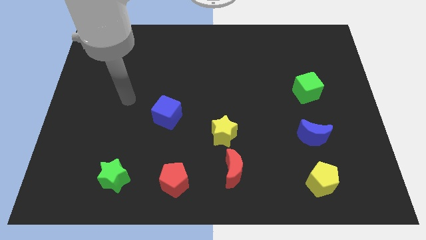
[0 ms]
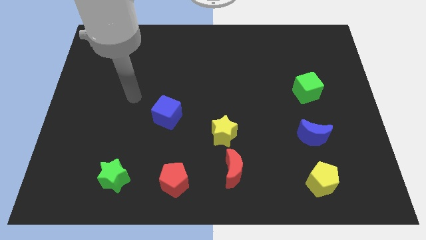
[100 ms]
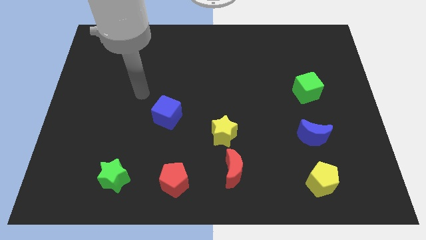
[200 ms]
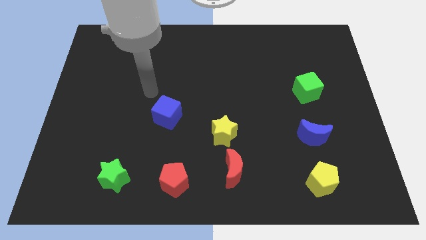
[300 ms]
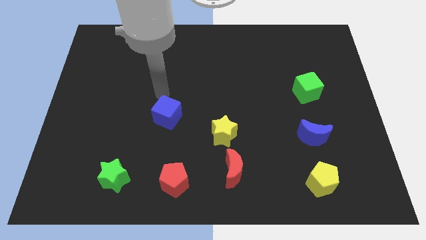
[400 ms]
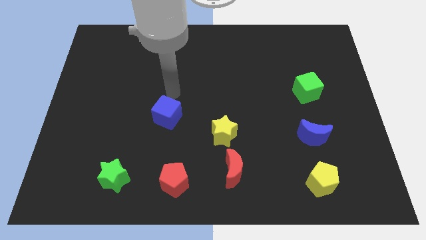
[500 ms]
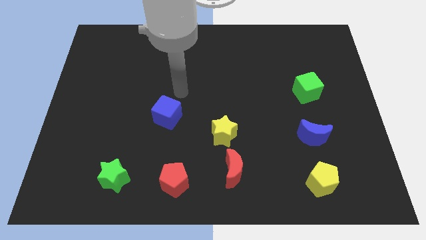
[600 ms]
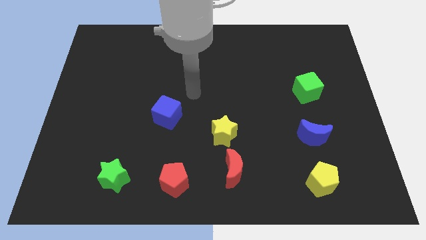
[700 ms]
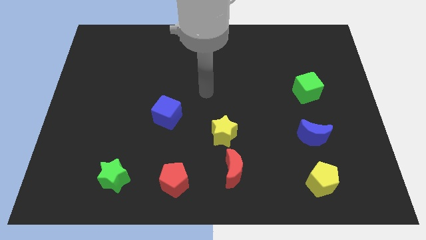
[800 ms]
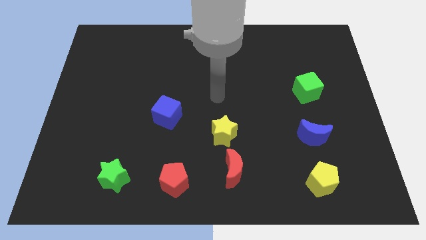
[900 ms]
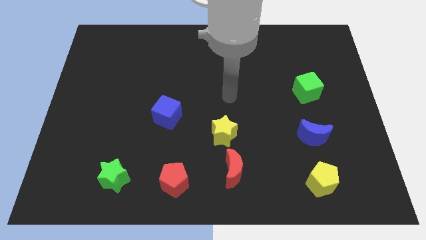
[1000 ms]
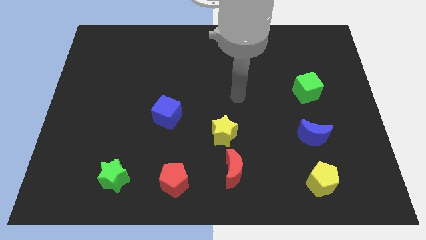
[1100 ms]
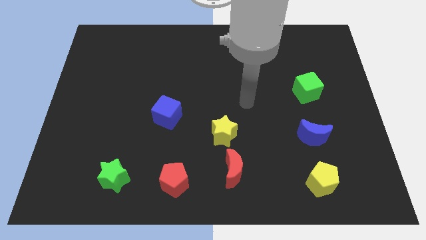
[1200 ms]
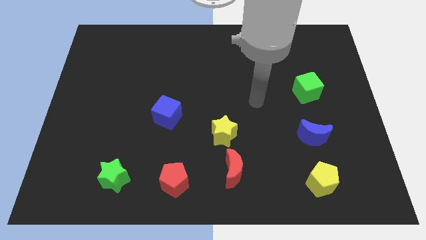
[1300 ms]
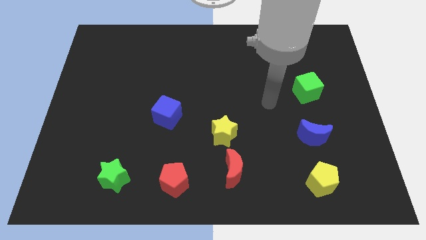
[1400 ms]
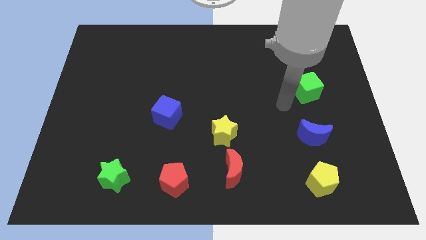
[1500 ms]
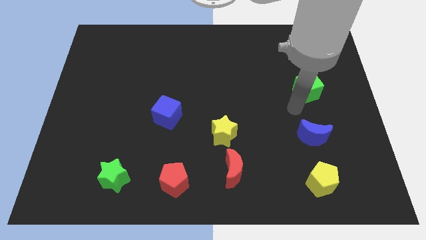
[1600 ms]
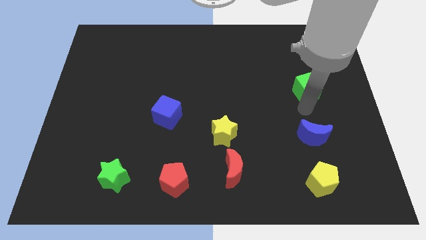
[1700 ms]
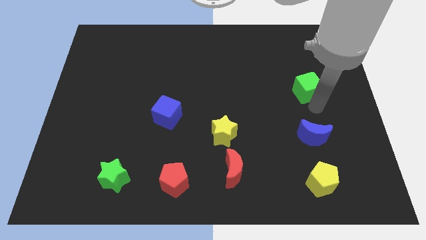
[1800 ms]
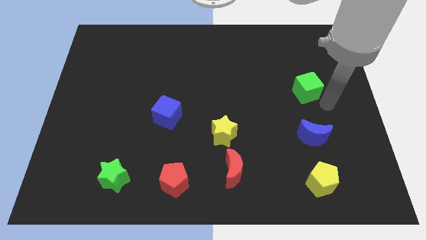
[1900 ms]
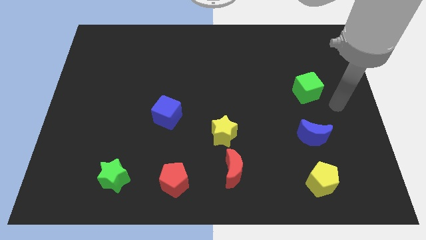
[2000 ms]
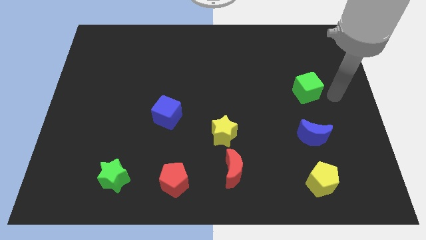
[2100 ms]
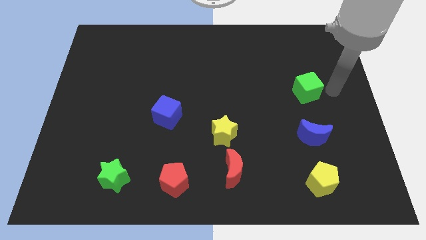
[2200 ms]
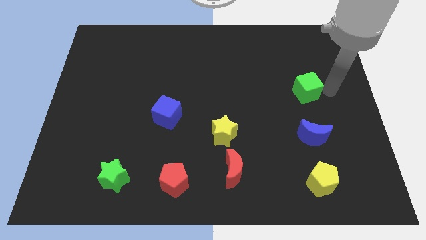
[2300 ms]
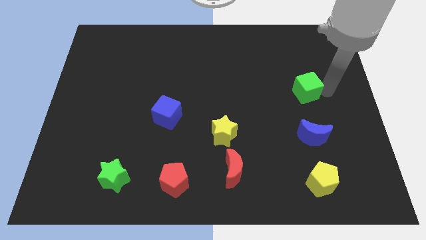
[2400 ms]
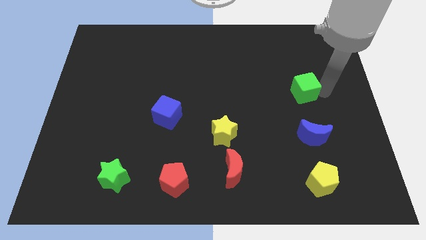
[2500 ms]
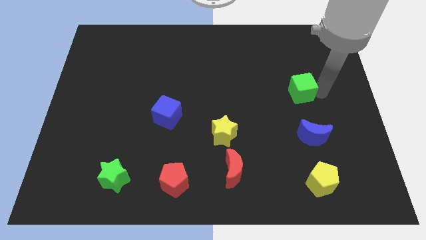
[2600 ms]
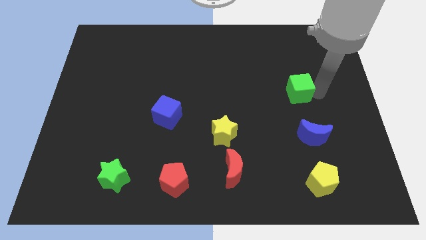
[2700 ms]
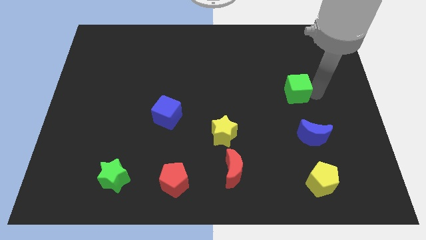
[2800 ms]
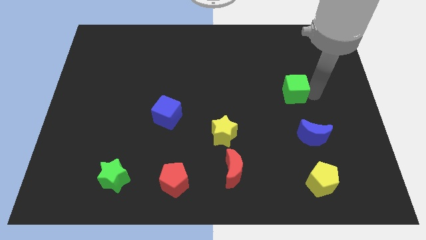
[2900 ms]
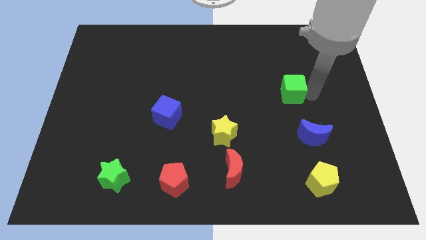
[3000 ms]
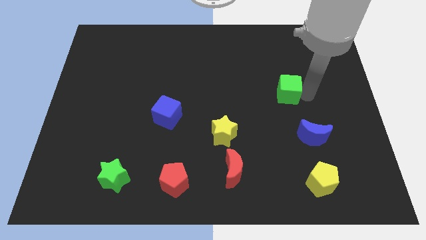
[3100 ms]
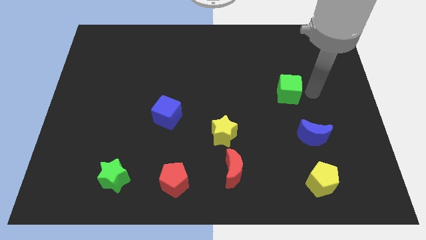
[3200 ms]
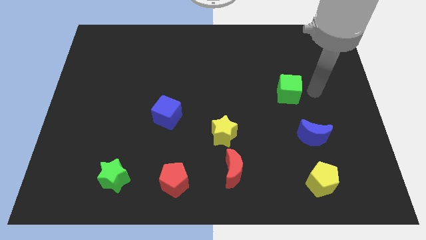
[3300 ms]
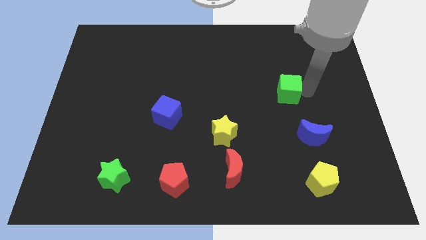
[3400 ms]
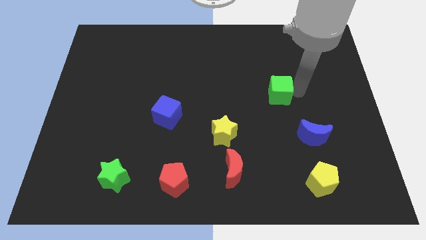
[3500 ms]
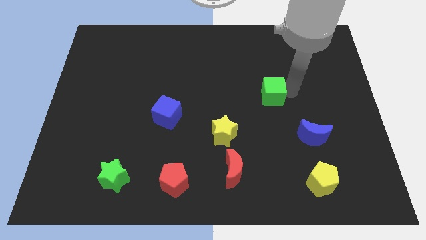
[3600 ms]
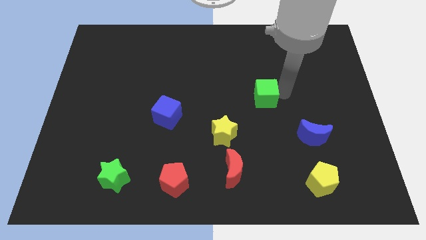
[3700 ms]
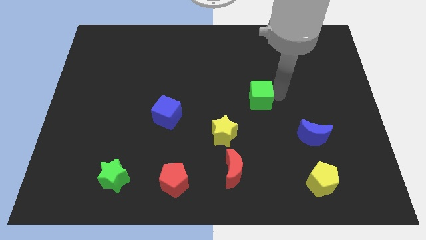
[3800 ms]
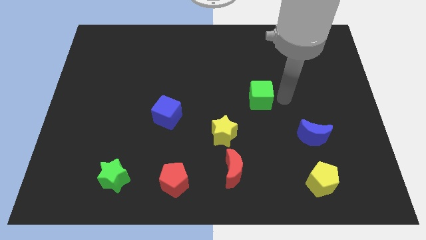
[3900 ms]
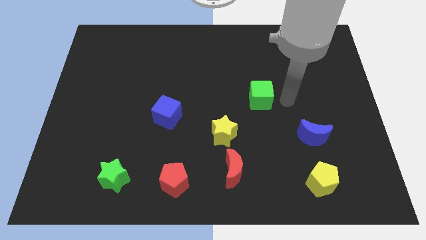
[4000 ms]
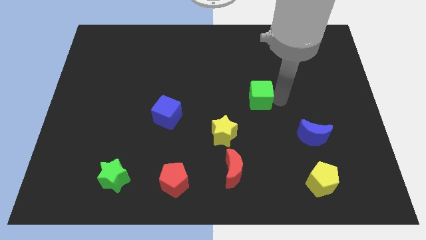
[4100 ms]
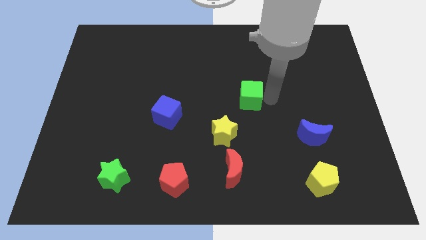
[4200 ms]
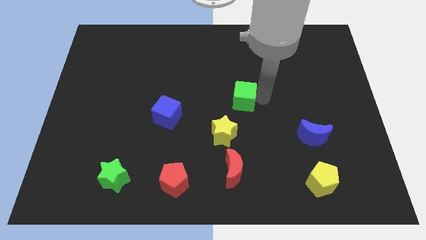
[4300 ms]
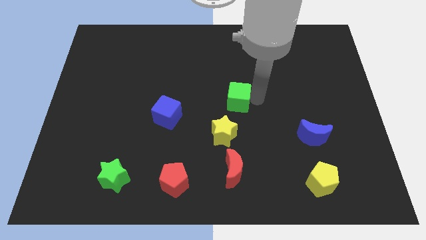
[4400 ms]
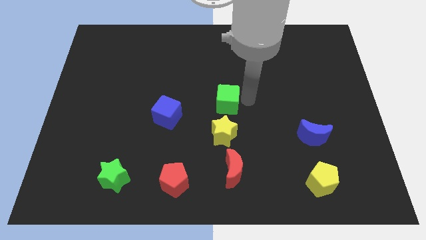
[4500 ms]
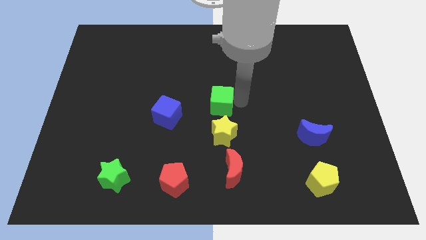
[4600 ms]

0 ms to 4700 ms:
slide the green cube to the left

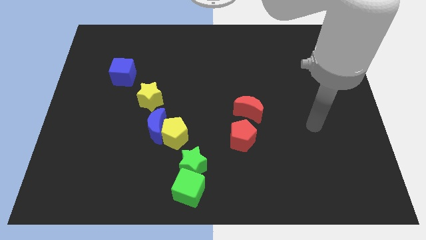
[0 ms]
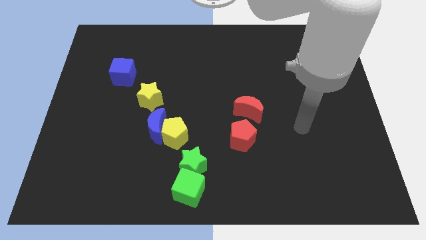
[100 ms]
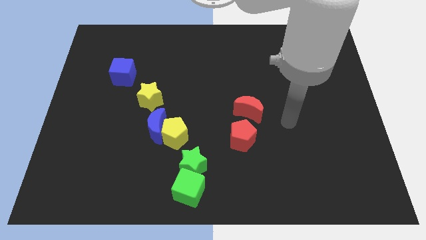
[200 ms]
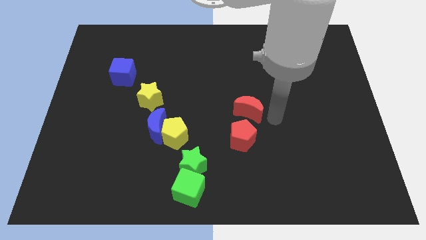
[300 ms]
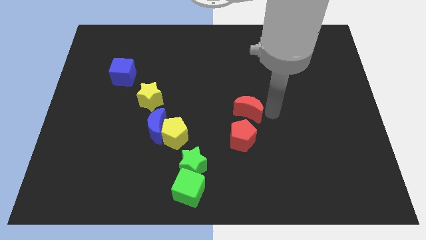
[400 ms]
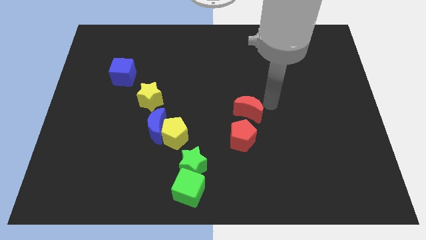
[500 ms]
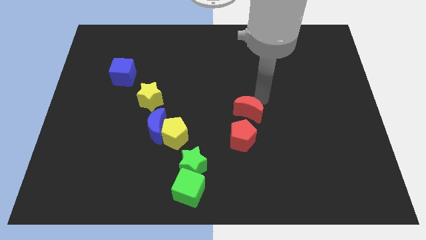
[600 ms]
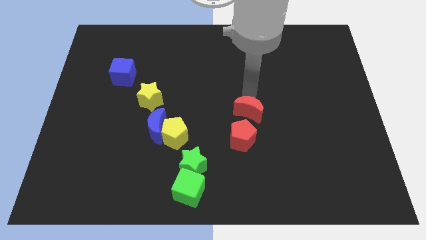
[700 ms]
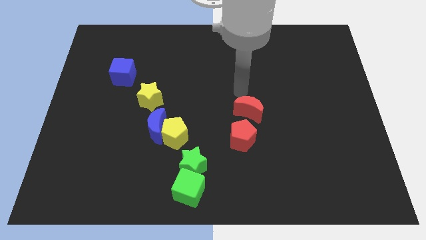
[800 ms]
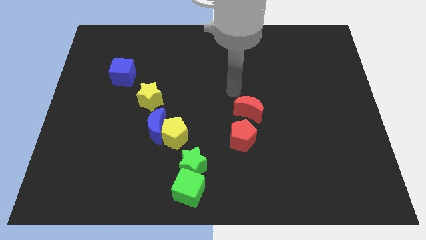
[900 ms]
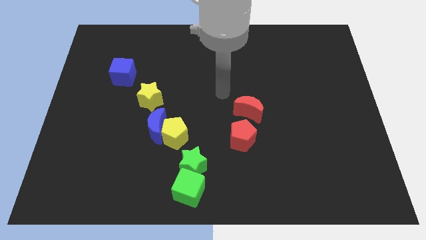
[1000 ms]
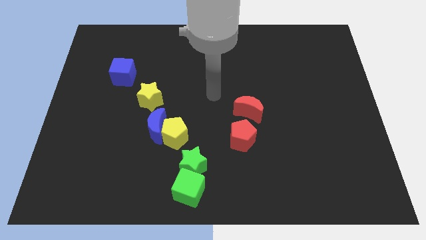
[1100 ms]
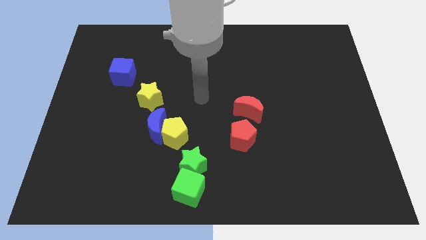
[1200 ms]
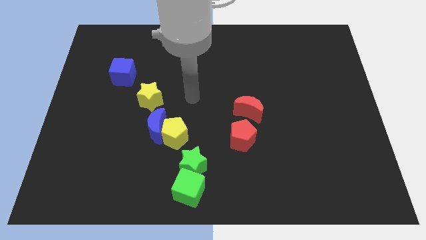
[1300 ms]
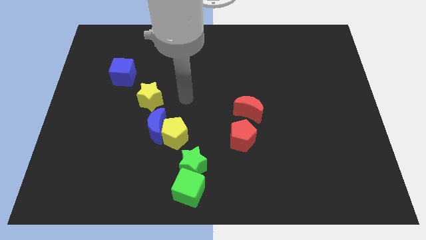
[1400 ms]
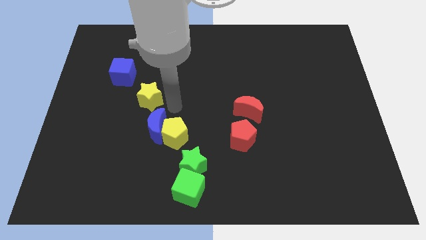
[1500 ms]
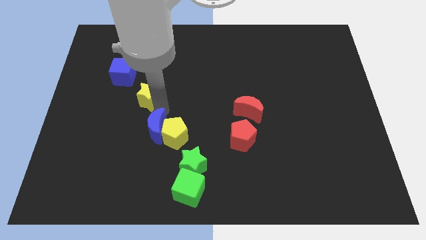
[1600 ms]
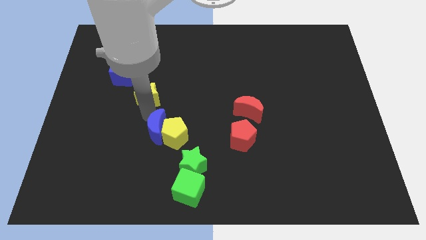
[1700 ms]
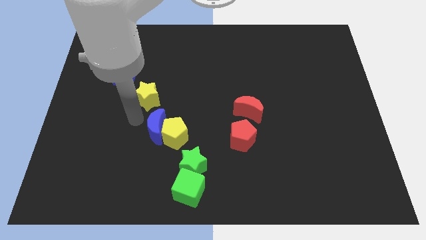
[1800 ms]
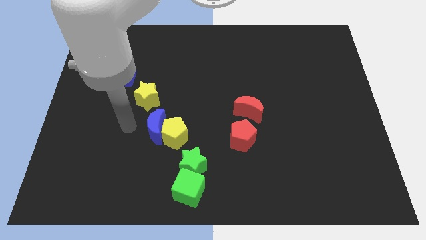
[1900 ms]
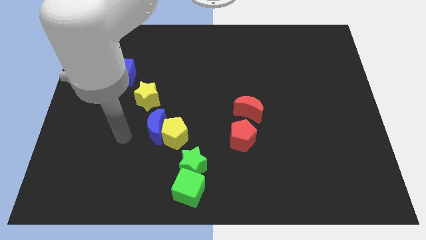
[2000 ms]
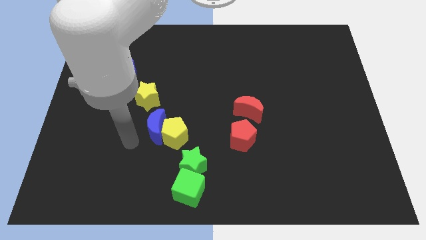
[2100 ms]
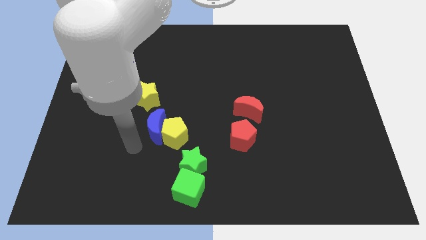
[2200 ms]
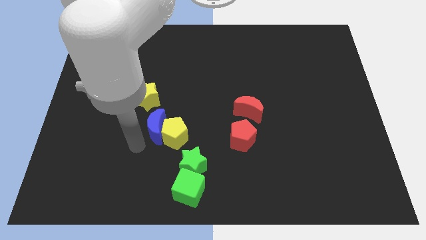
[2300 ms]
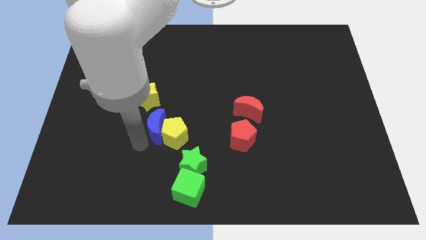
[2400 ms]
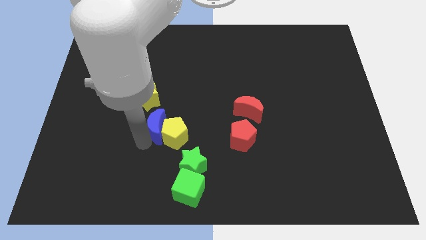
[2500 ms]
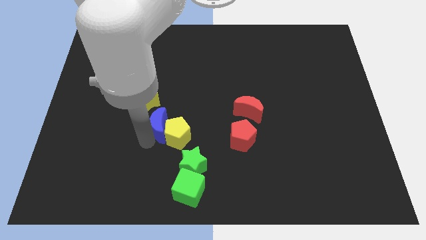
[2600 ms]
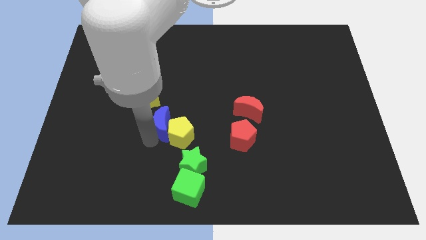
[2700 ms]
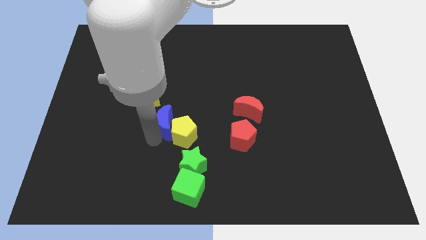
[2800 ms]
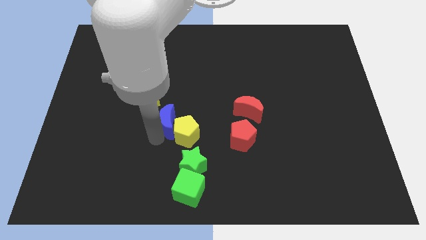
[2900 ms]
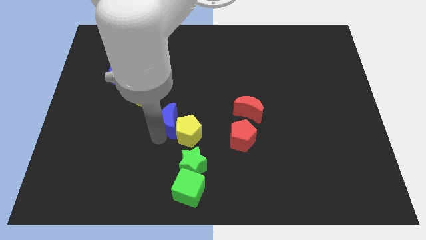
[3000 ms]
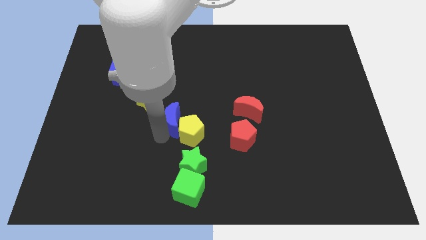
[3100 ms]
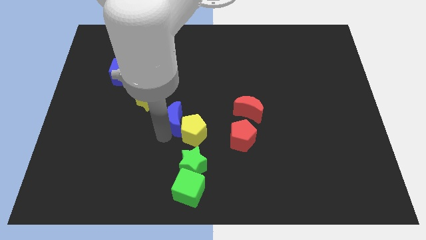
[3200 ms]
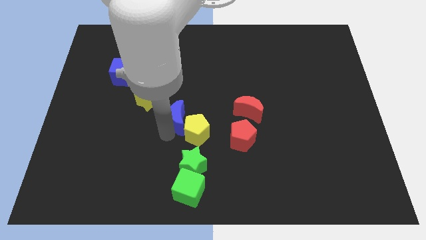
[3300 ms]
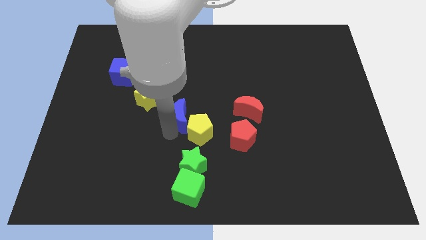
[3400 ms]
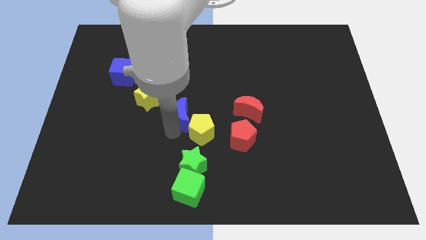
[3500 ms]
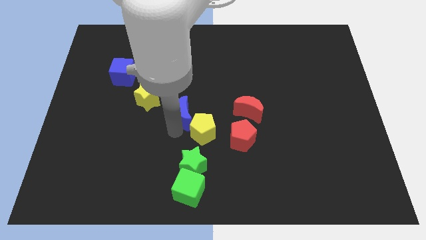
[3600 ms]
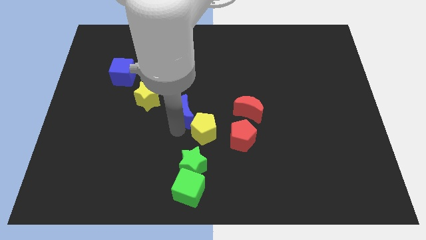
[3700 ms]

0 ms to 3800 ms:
move the blue moon up and right diagonally a little bit
